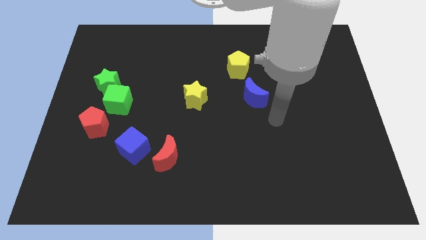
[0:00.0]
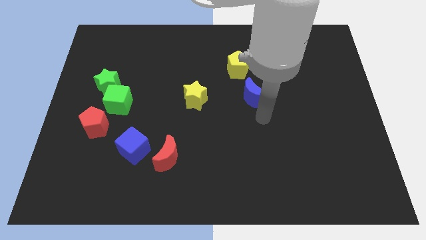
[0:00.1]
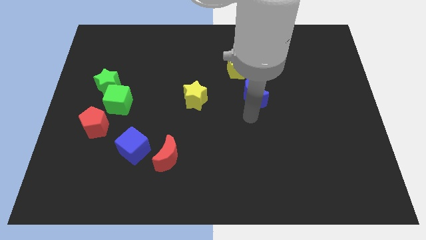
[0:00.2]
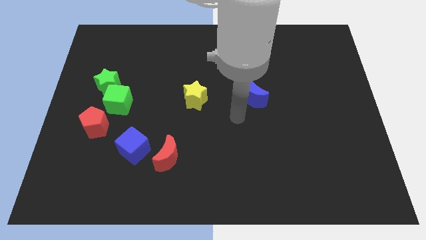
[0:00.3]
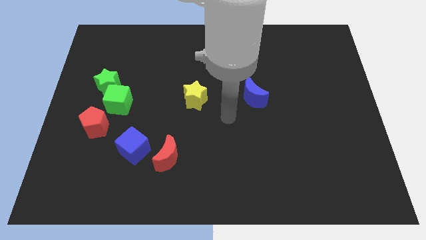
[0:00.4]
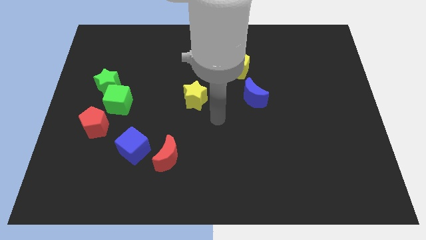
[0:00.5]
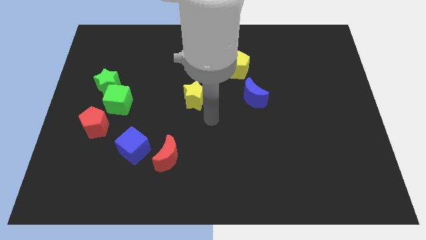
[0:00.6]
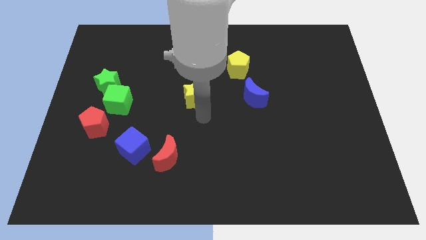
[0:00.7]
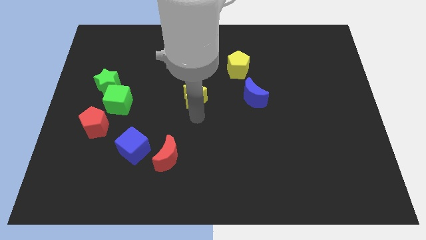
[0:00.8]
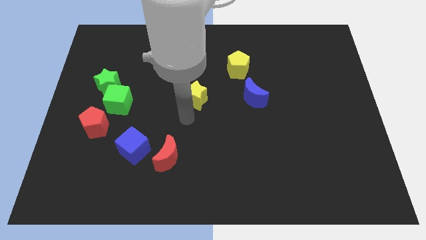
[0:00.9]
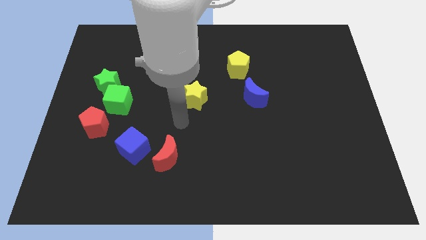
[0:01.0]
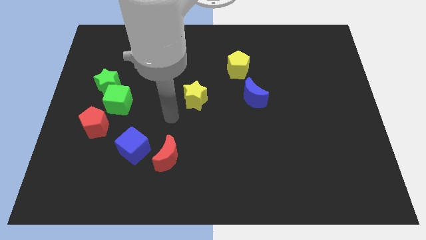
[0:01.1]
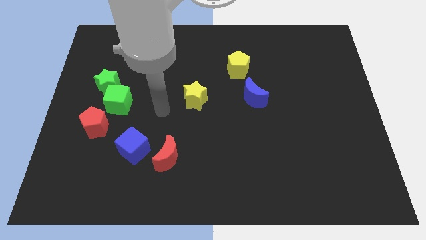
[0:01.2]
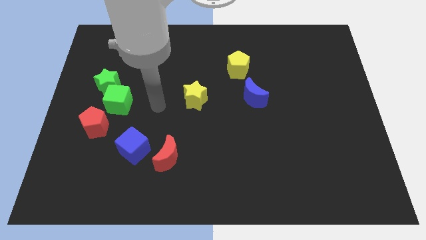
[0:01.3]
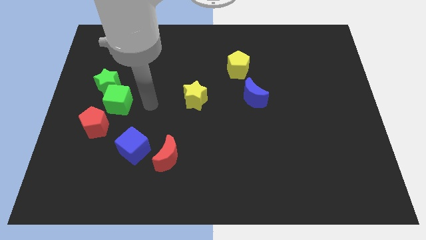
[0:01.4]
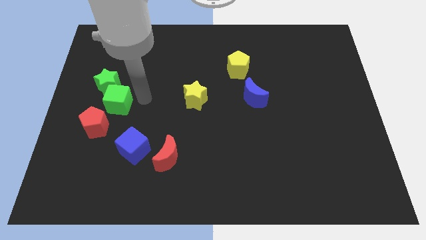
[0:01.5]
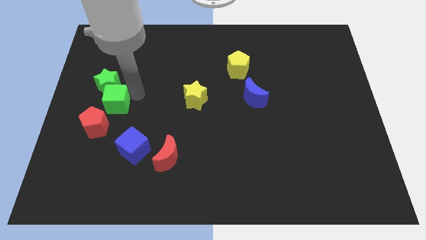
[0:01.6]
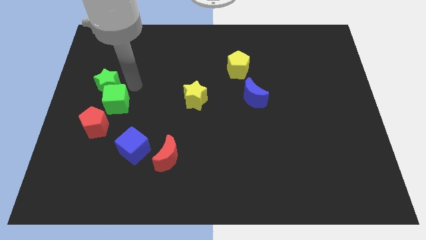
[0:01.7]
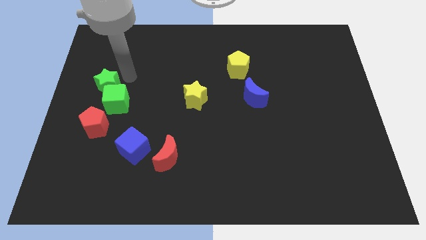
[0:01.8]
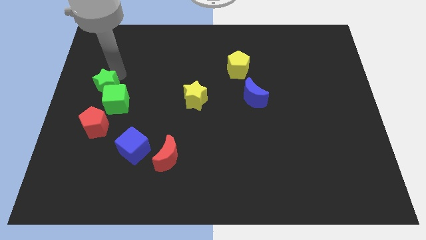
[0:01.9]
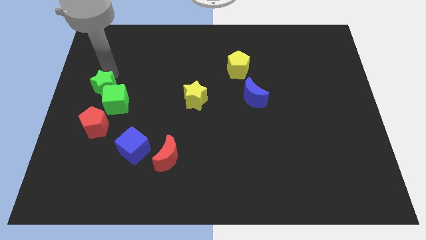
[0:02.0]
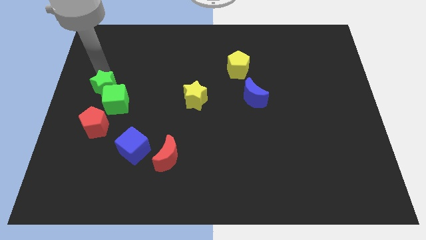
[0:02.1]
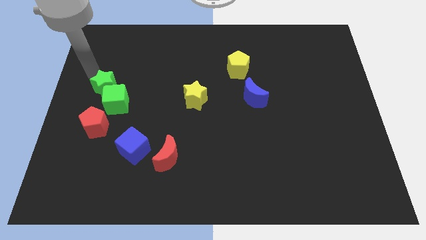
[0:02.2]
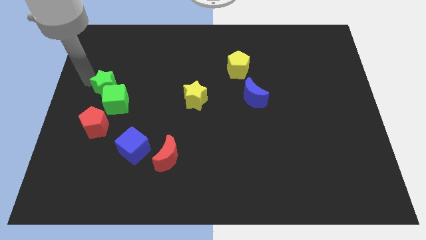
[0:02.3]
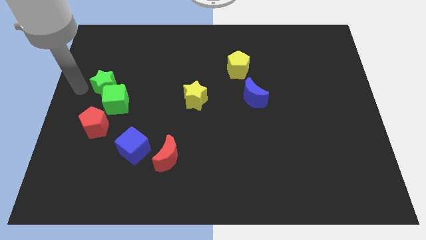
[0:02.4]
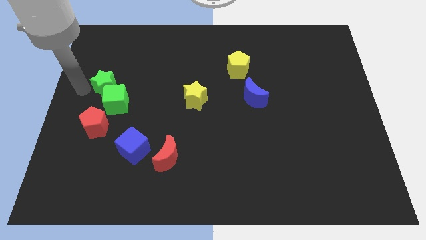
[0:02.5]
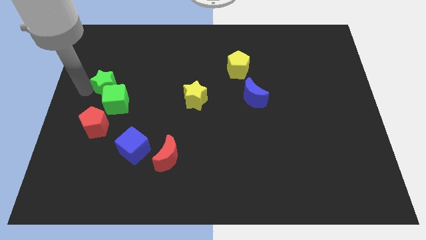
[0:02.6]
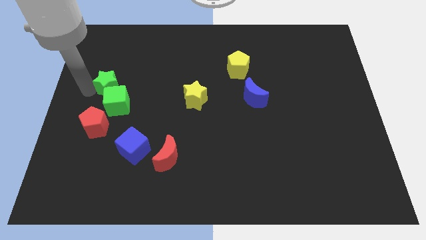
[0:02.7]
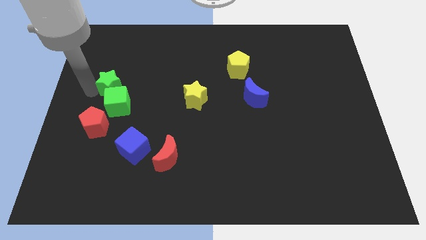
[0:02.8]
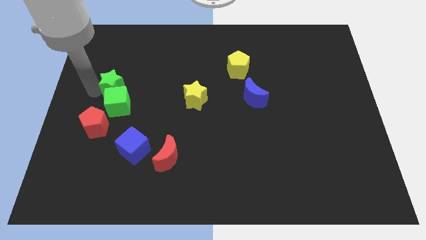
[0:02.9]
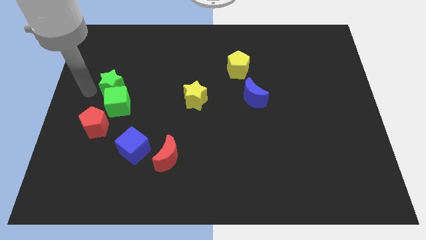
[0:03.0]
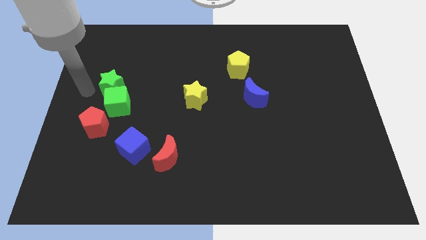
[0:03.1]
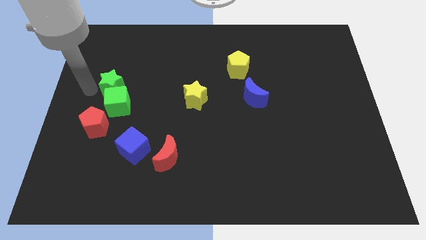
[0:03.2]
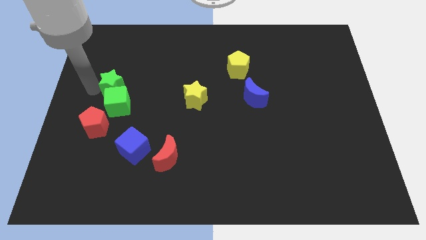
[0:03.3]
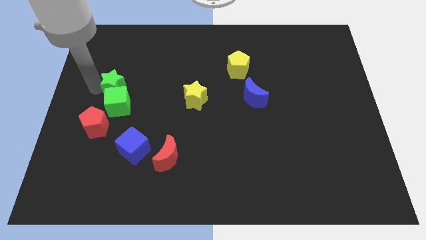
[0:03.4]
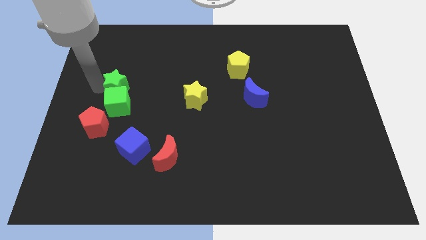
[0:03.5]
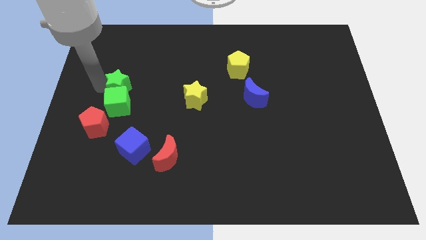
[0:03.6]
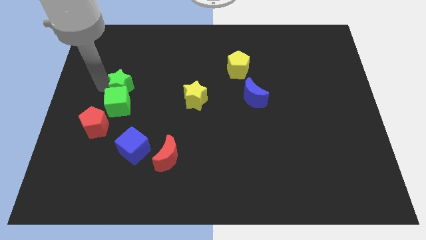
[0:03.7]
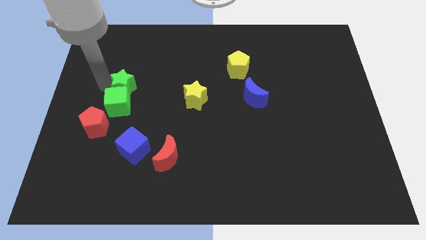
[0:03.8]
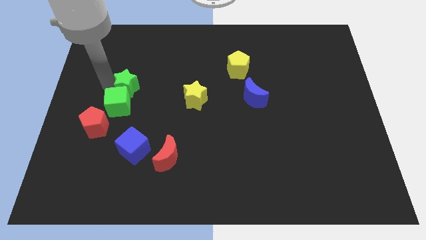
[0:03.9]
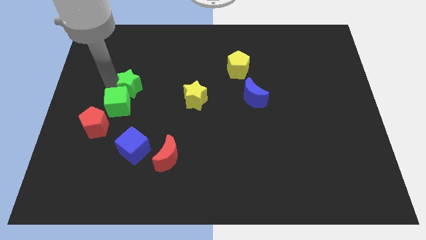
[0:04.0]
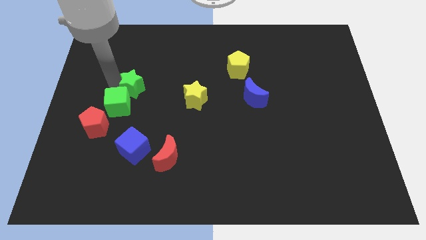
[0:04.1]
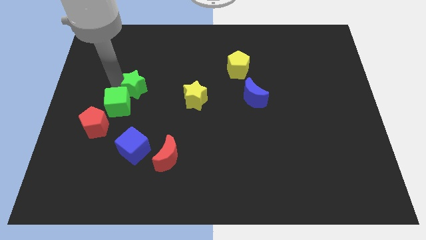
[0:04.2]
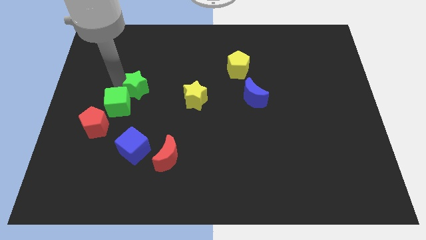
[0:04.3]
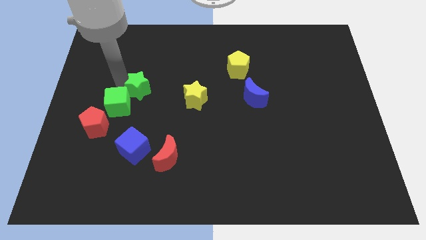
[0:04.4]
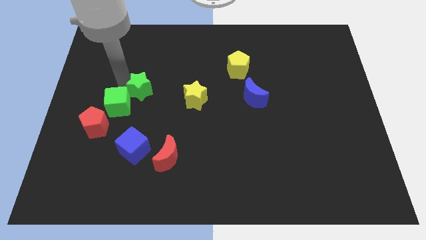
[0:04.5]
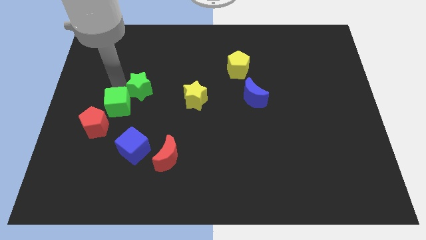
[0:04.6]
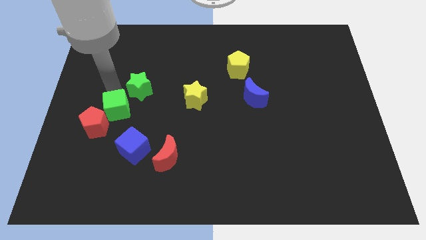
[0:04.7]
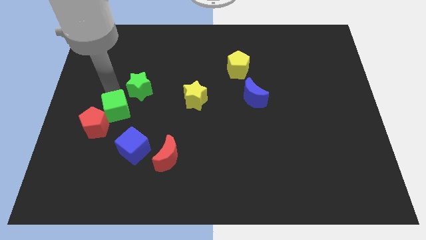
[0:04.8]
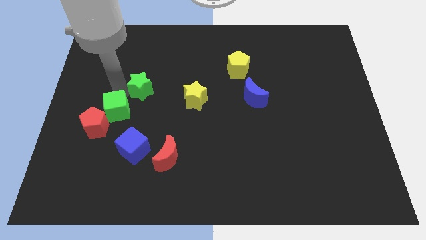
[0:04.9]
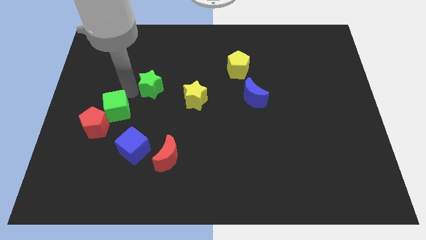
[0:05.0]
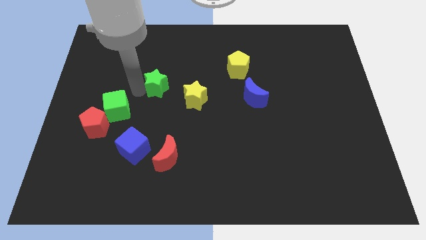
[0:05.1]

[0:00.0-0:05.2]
move the green star to the top left of the yellow star

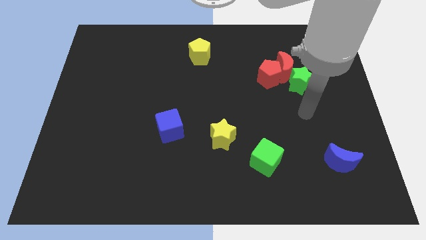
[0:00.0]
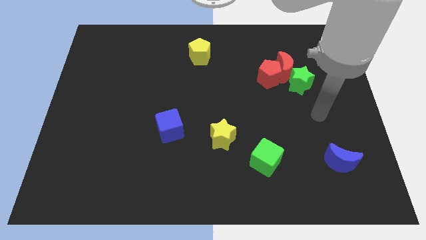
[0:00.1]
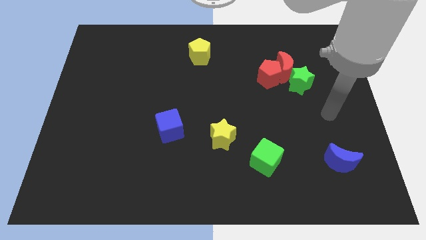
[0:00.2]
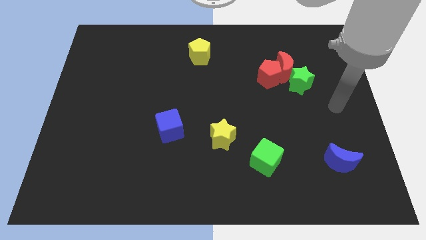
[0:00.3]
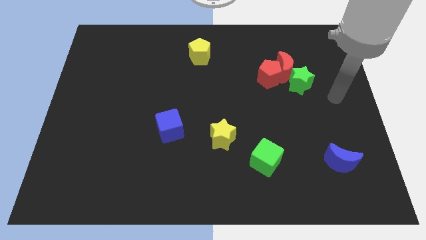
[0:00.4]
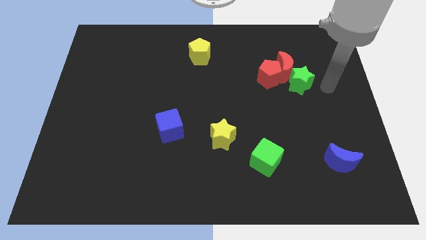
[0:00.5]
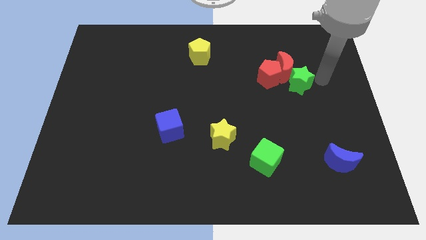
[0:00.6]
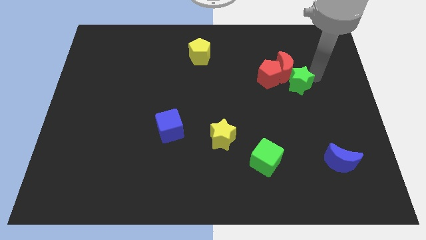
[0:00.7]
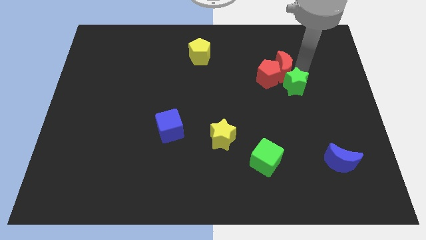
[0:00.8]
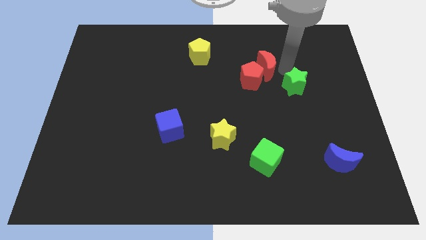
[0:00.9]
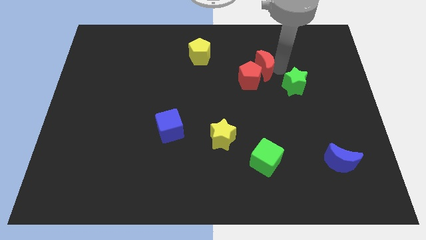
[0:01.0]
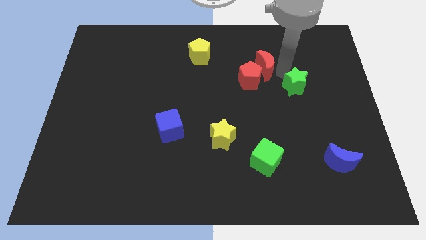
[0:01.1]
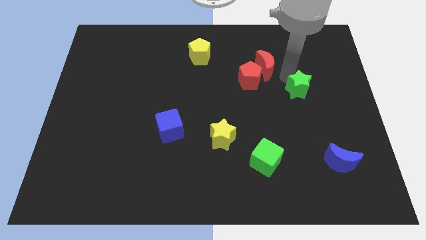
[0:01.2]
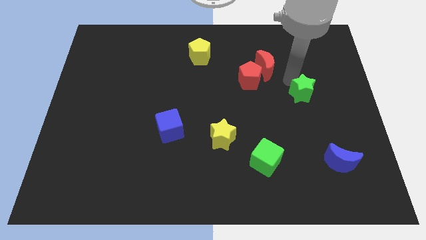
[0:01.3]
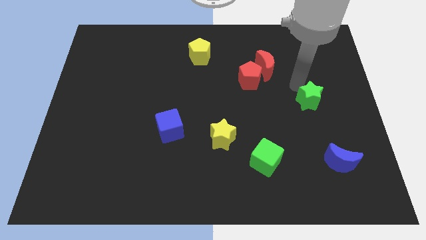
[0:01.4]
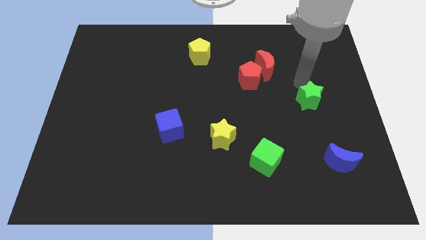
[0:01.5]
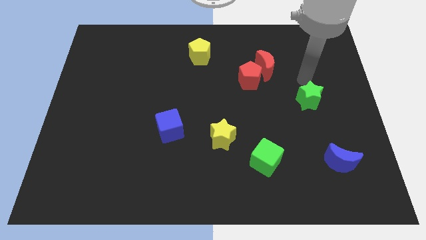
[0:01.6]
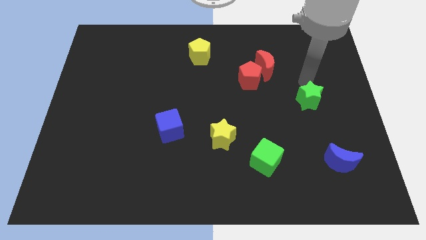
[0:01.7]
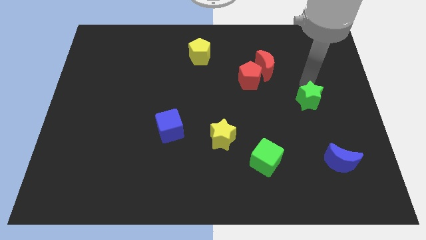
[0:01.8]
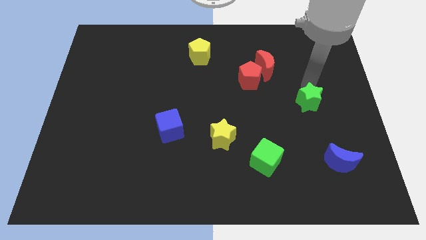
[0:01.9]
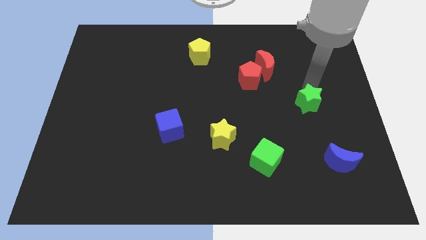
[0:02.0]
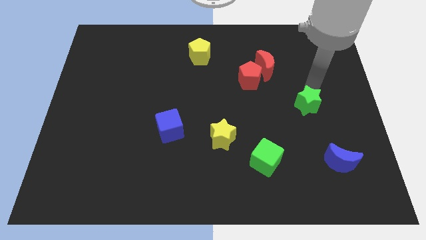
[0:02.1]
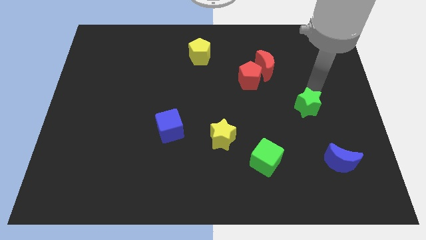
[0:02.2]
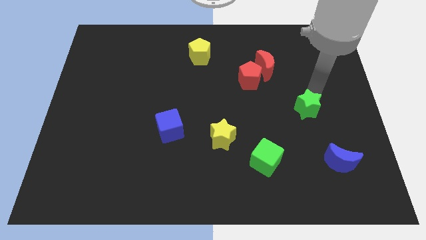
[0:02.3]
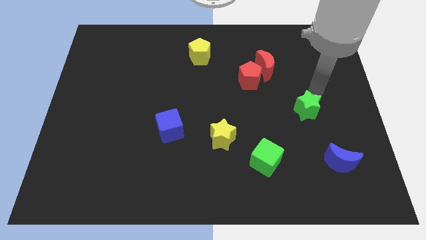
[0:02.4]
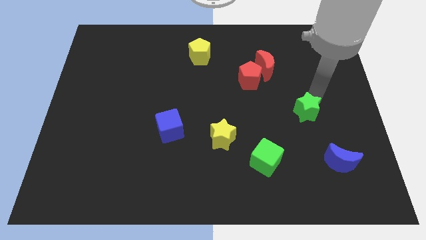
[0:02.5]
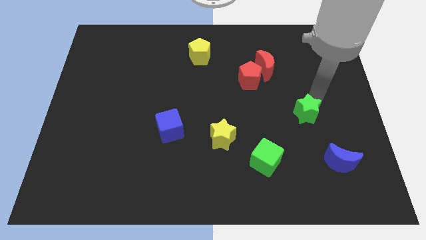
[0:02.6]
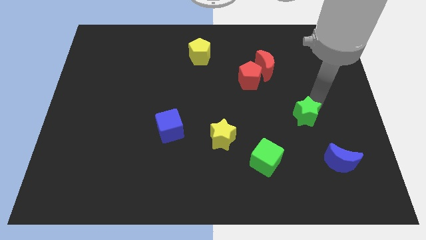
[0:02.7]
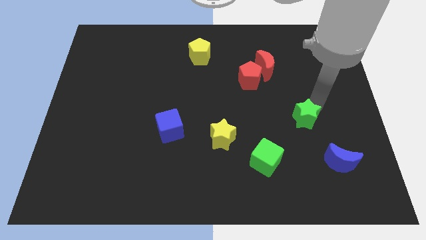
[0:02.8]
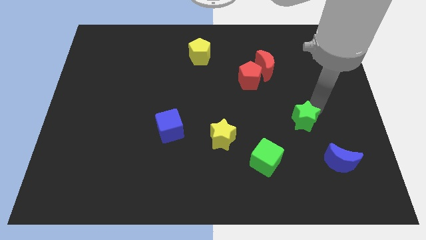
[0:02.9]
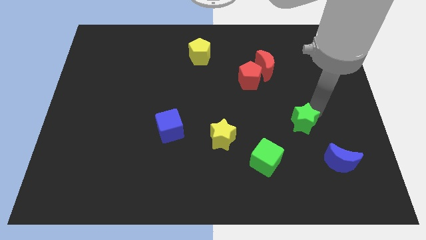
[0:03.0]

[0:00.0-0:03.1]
push the green star to the top left of the blue moon
